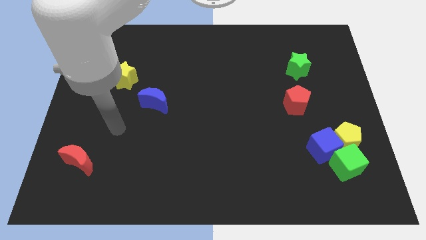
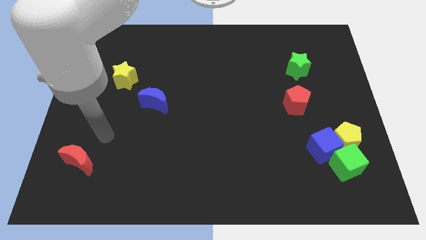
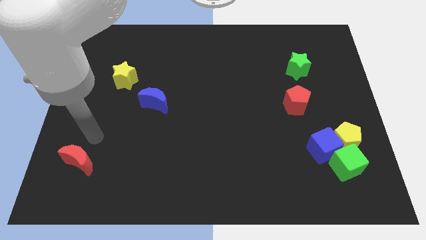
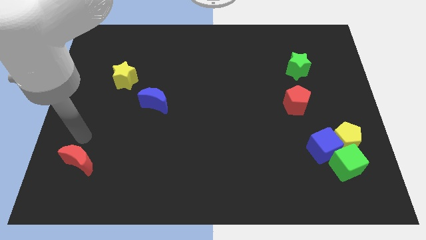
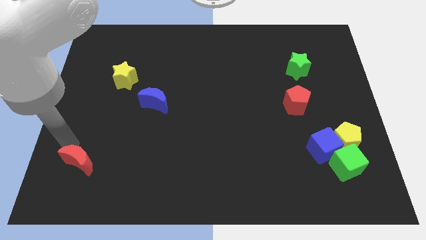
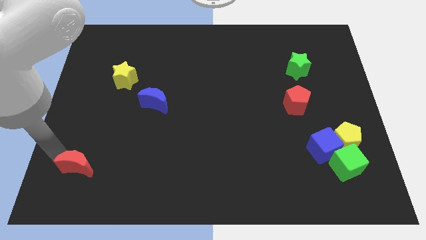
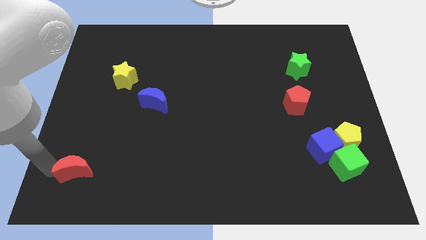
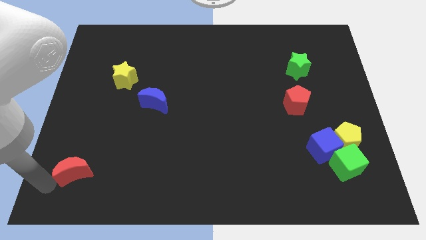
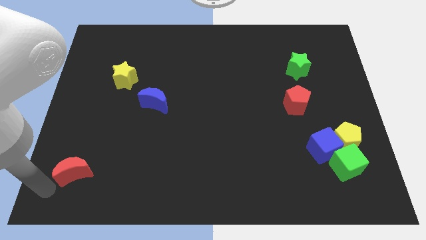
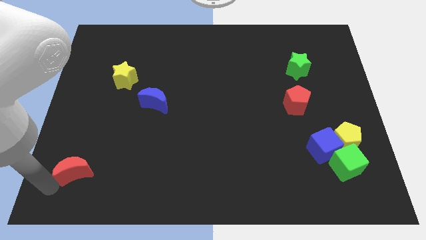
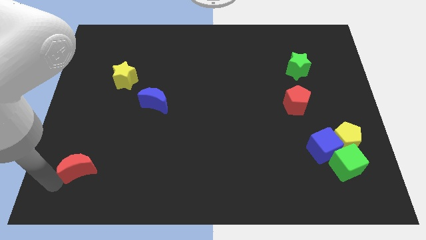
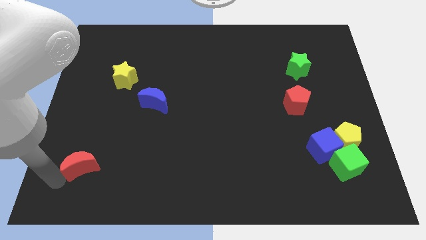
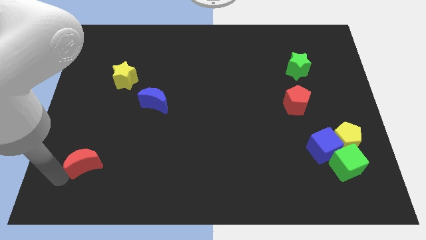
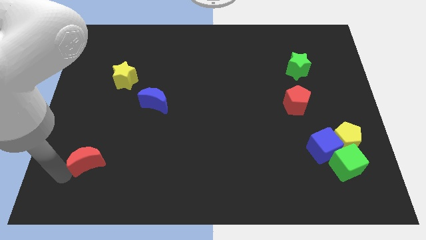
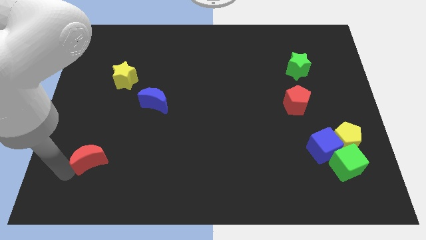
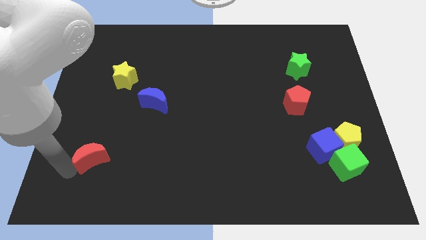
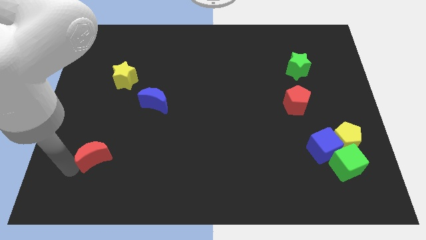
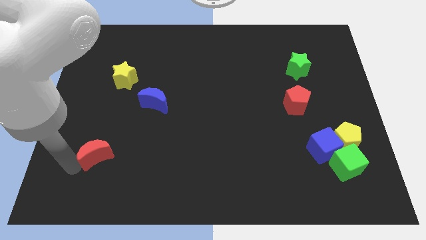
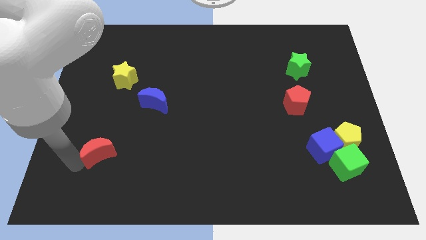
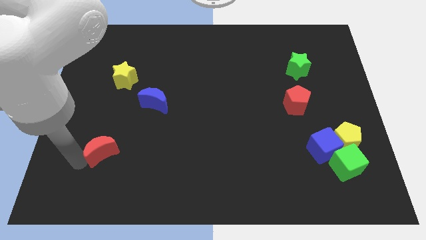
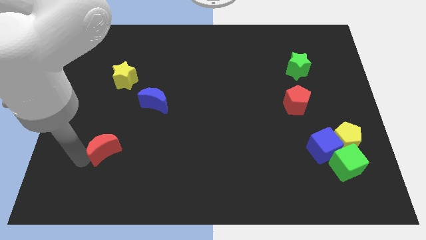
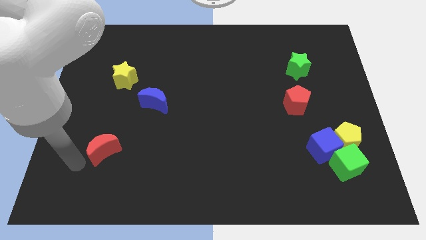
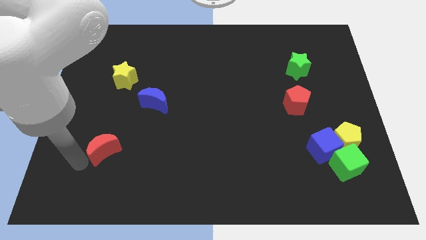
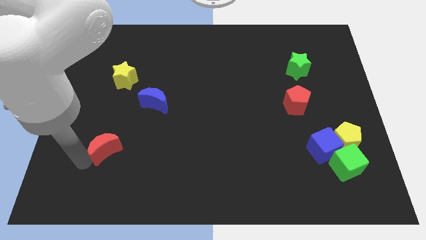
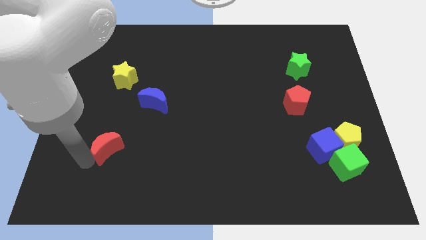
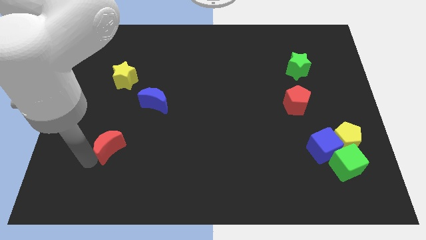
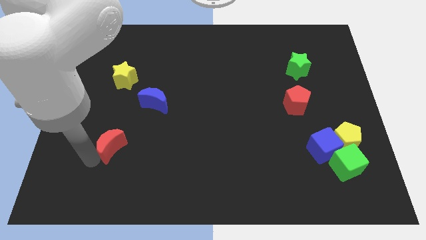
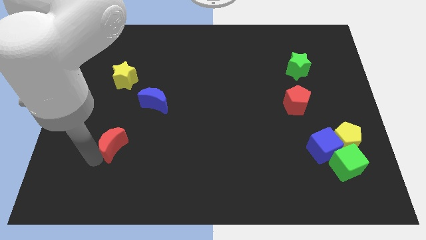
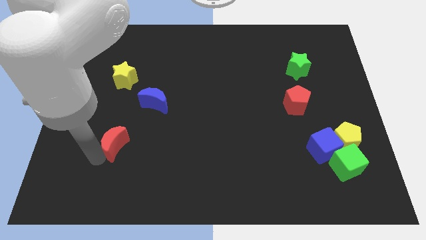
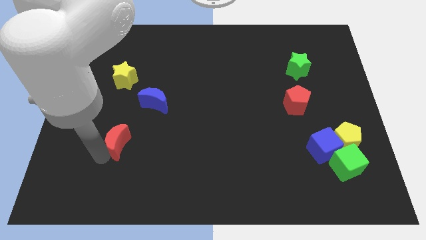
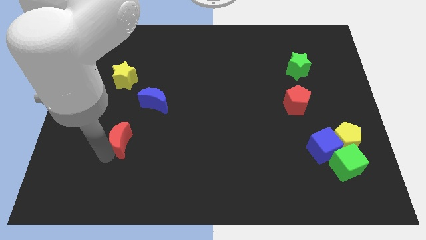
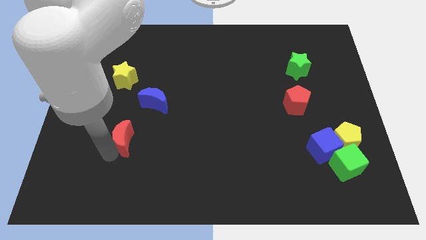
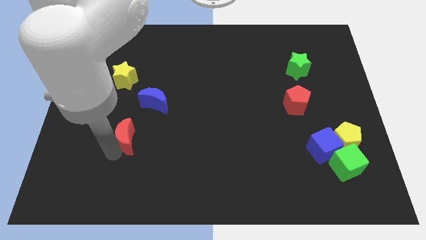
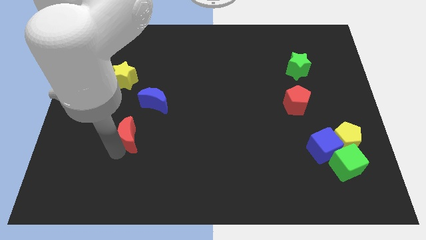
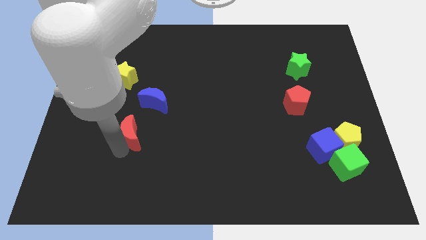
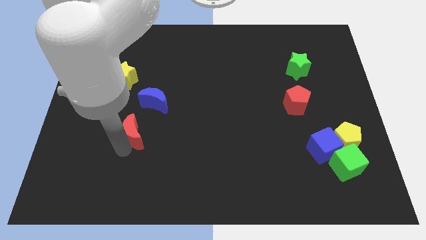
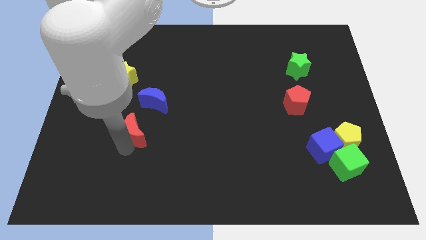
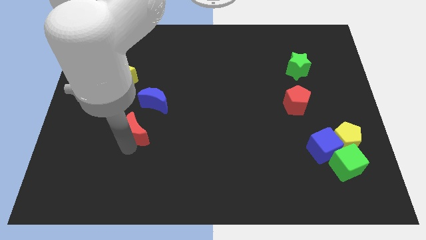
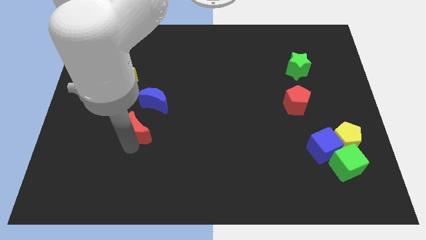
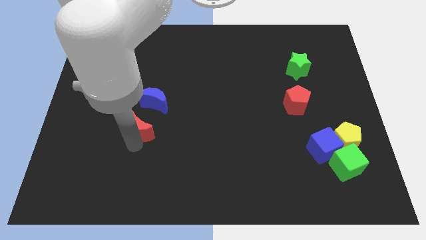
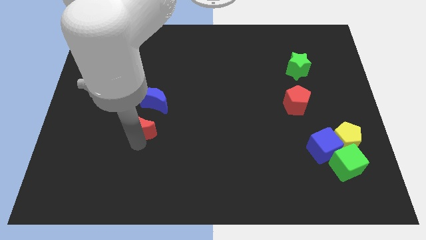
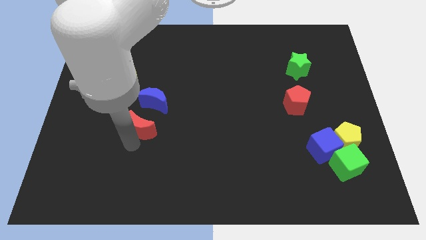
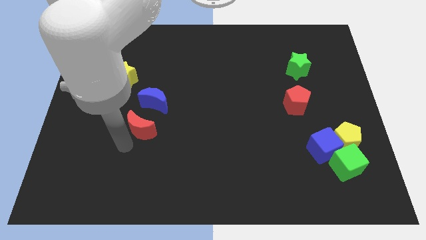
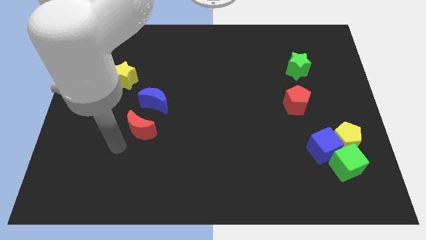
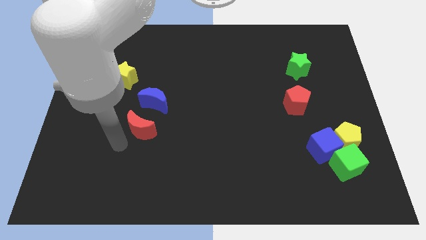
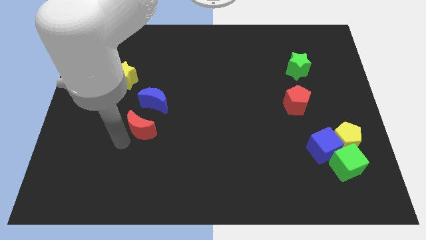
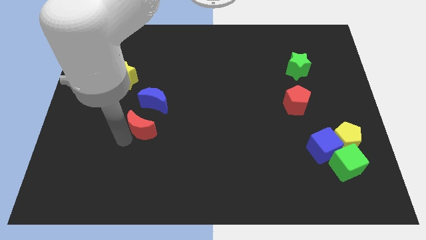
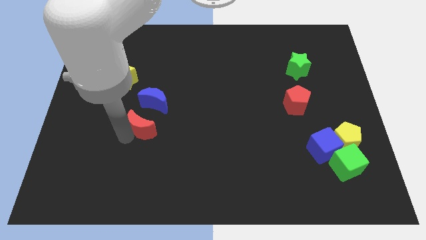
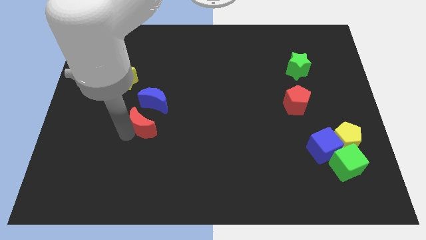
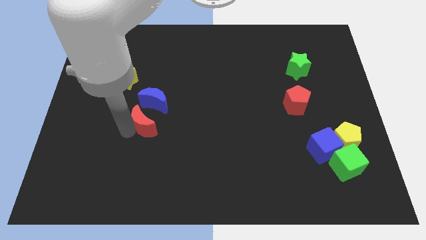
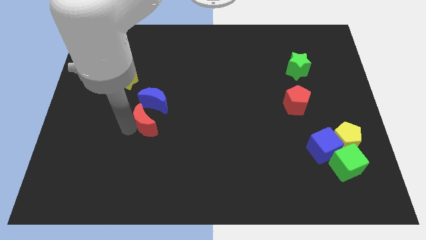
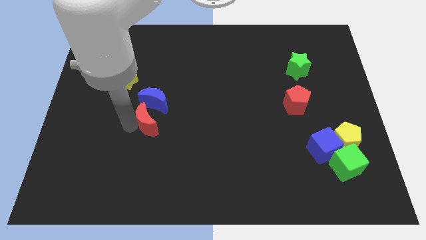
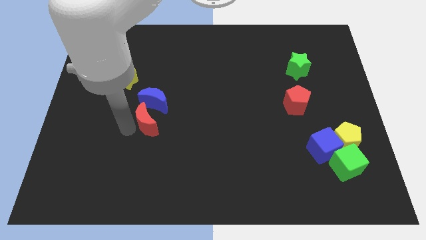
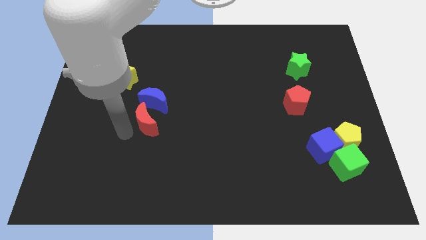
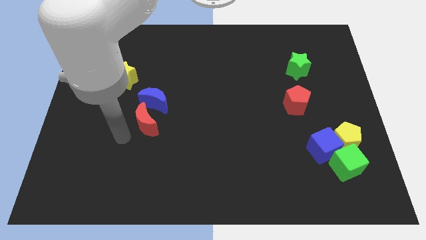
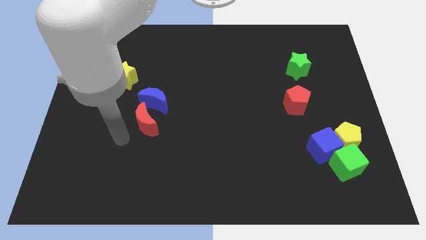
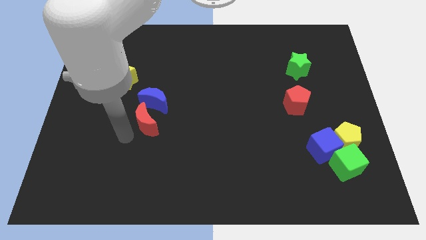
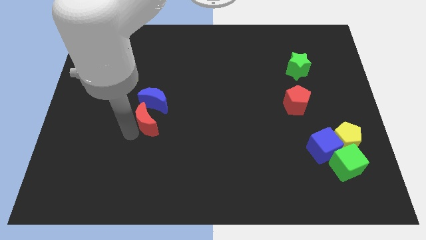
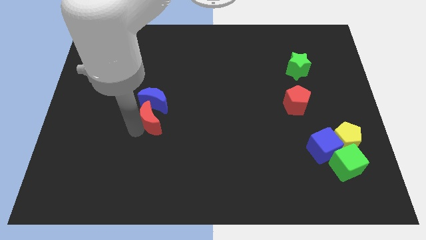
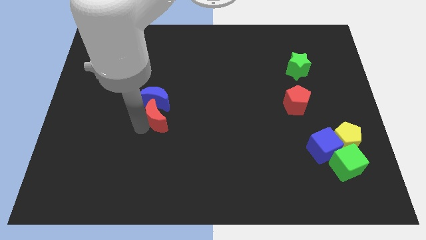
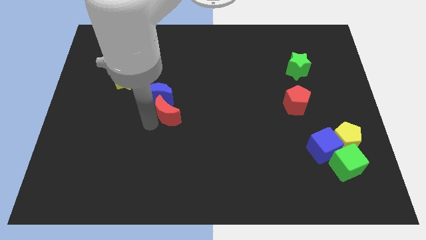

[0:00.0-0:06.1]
push the red moon up and to the right

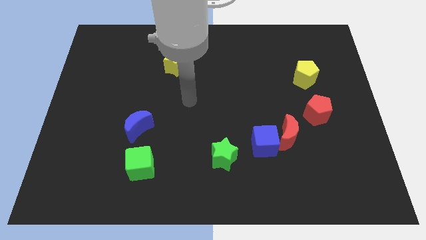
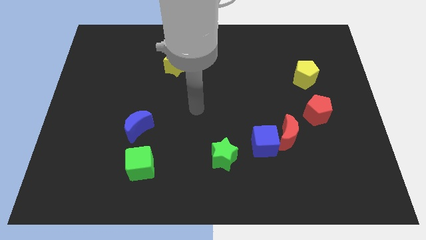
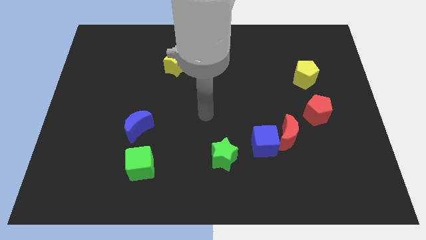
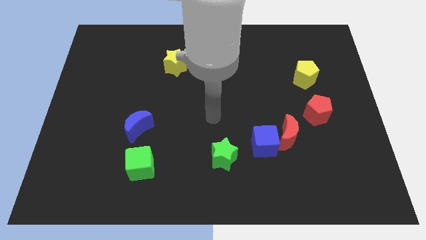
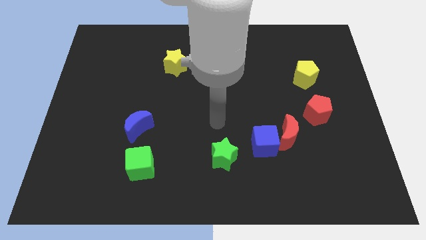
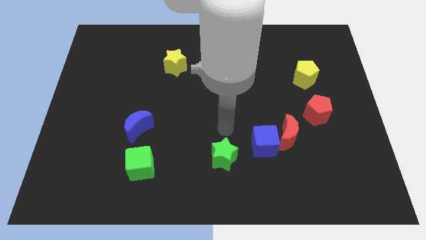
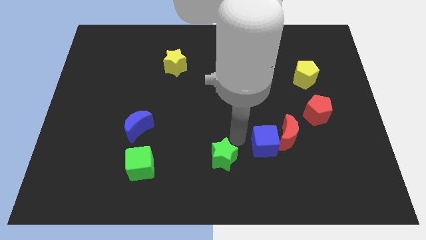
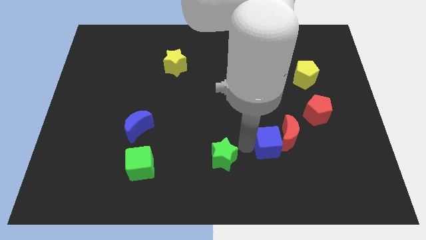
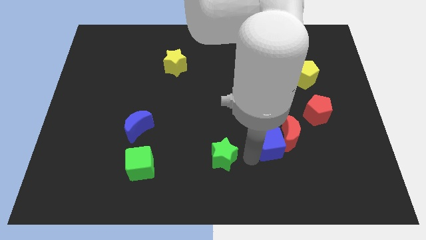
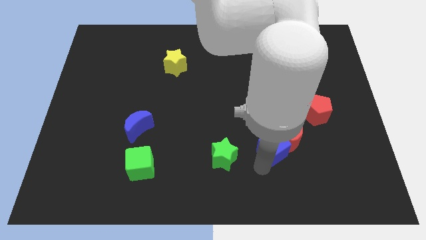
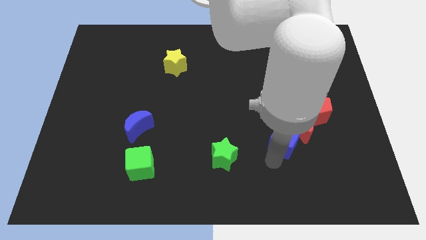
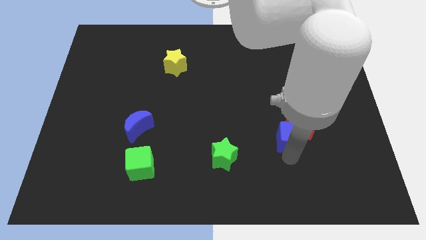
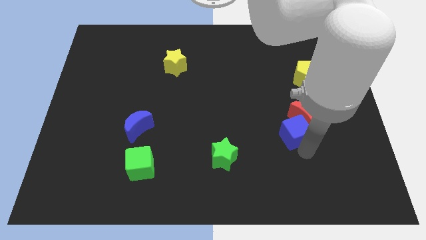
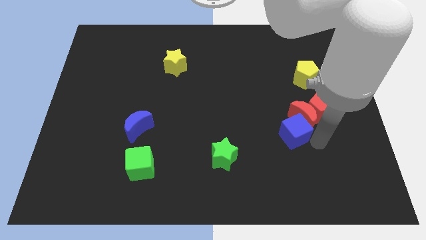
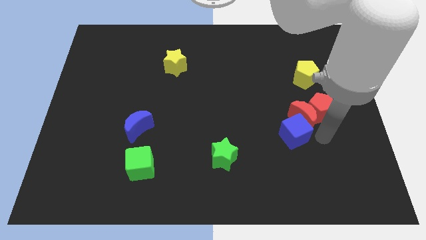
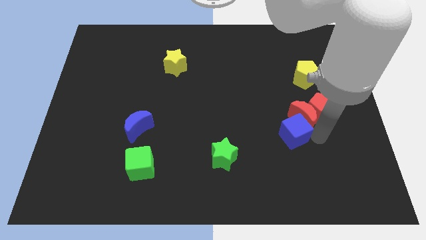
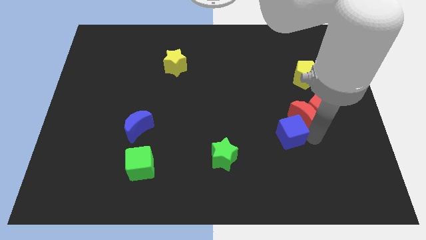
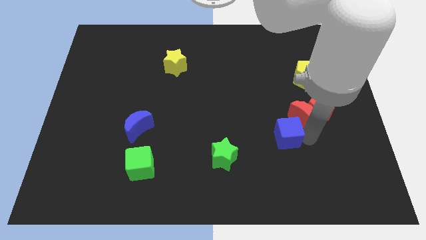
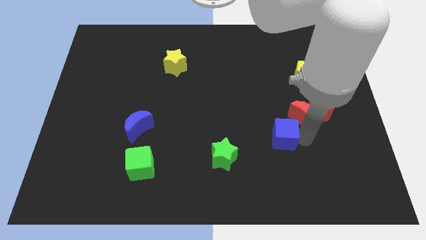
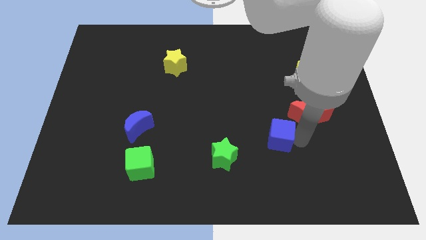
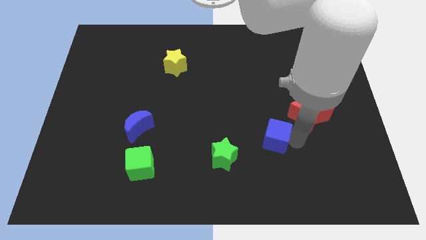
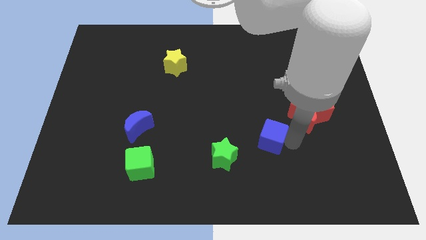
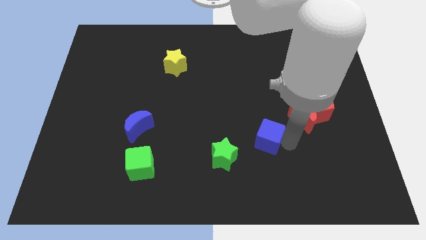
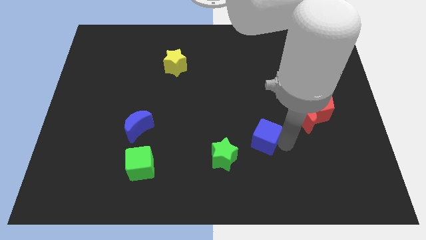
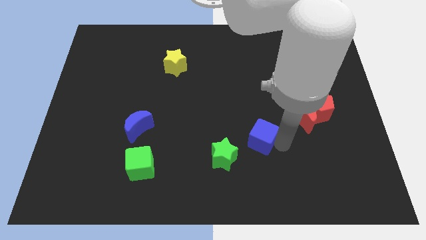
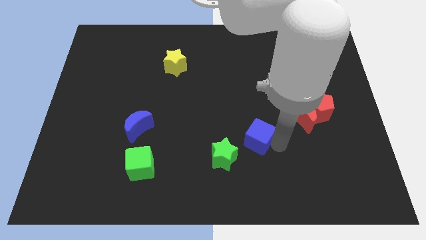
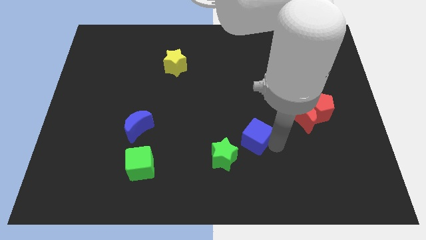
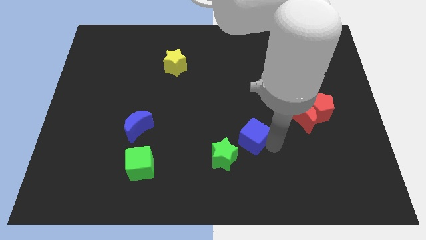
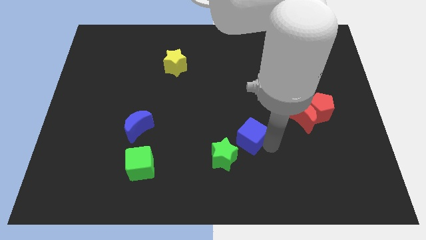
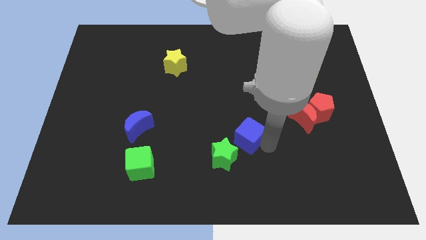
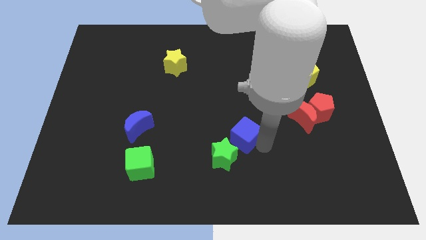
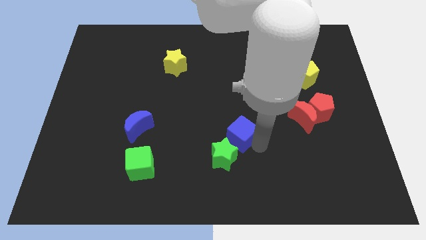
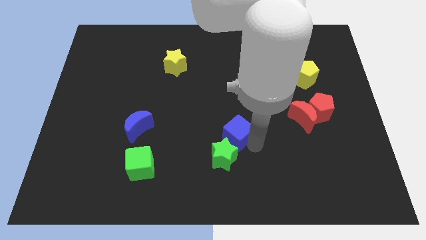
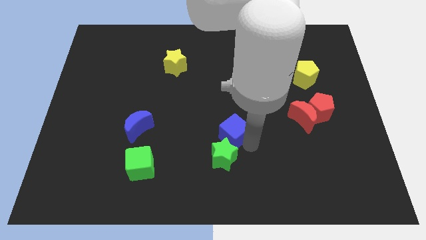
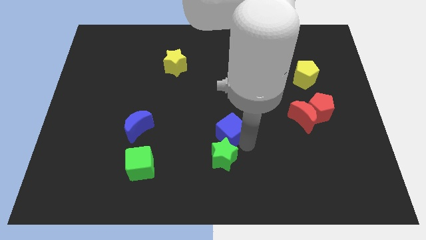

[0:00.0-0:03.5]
push the blue cube a bit upwards and to the left diagonally
